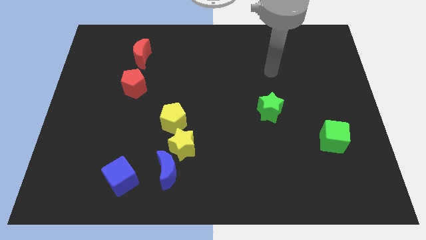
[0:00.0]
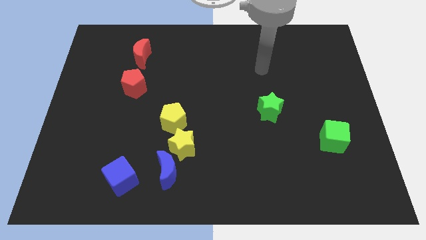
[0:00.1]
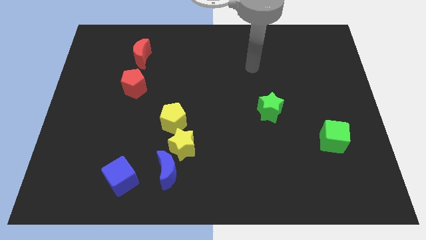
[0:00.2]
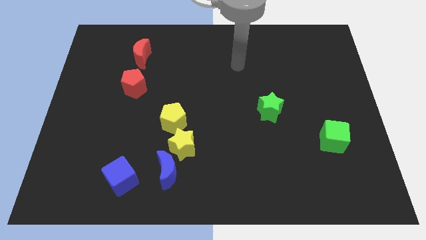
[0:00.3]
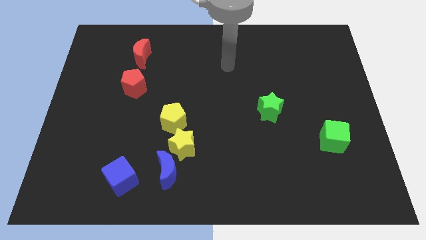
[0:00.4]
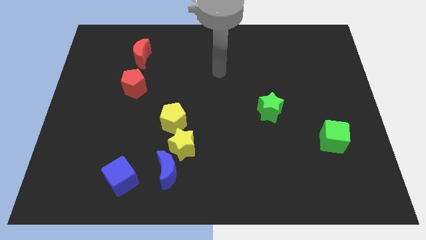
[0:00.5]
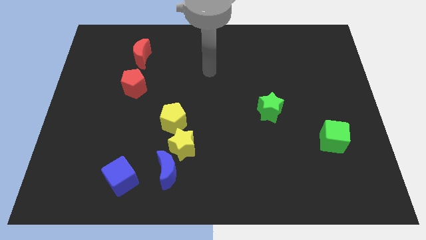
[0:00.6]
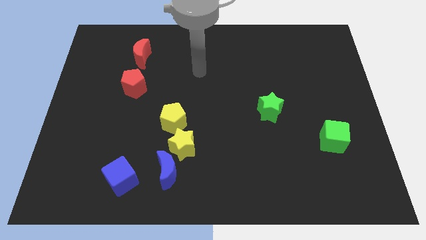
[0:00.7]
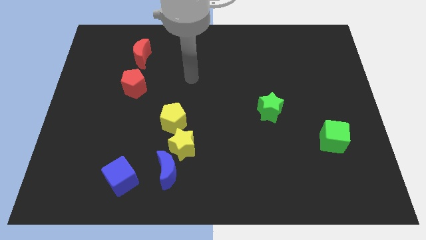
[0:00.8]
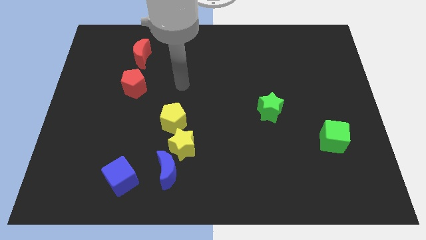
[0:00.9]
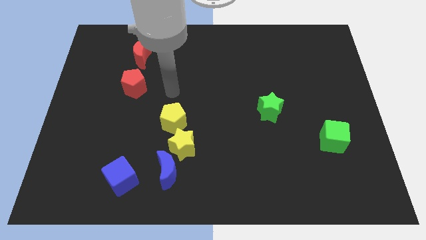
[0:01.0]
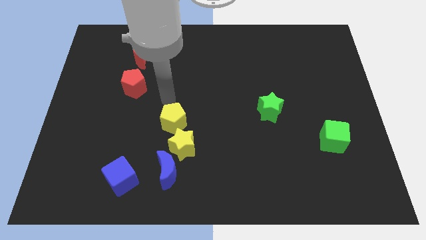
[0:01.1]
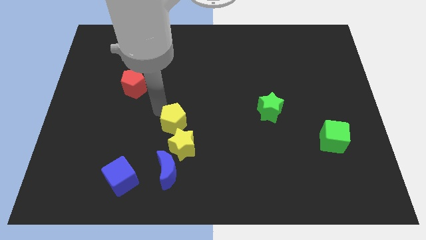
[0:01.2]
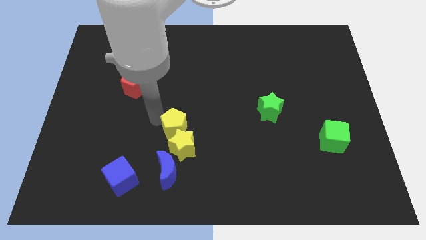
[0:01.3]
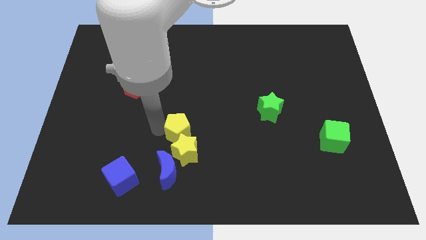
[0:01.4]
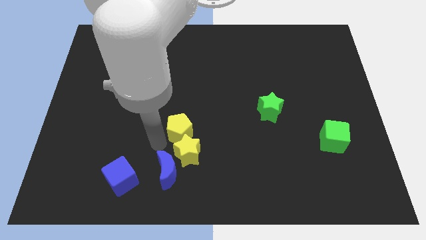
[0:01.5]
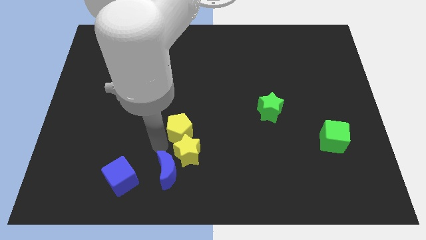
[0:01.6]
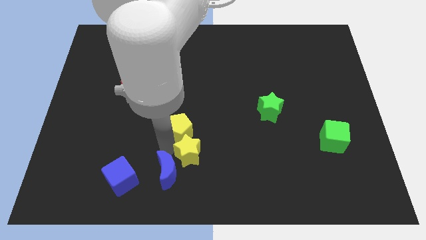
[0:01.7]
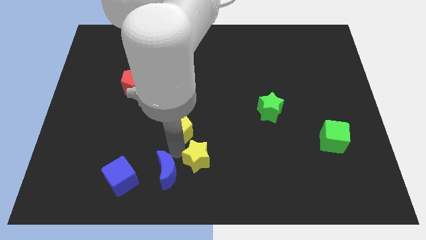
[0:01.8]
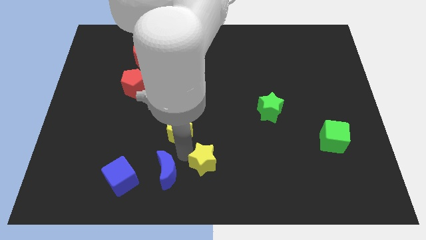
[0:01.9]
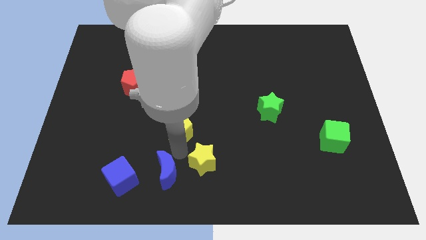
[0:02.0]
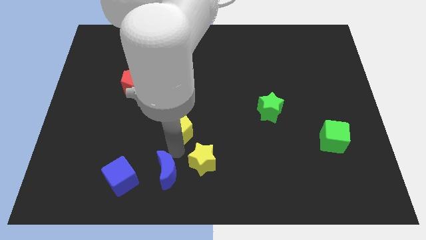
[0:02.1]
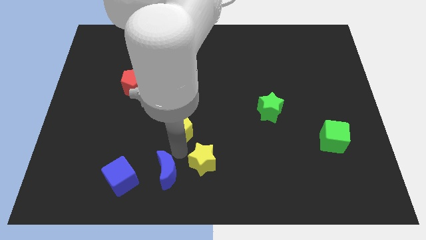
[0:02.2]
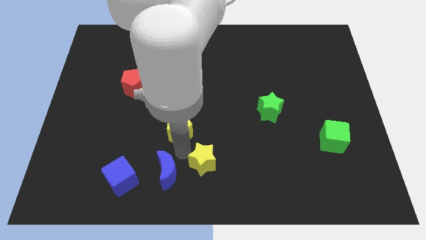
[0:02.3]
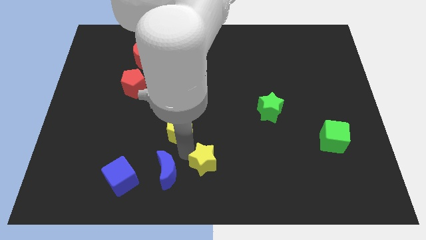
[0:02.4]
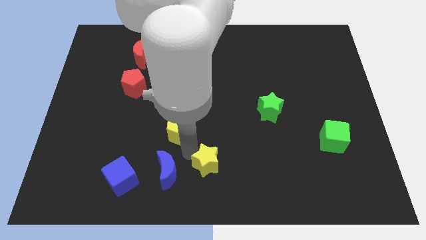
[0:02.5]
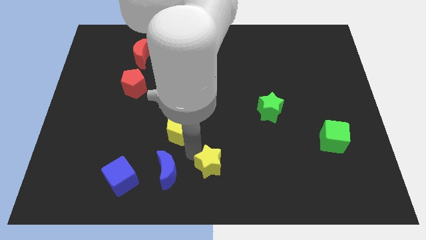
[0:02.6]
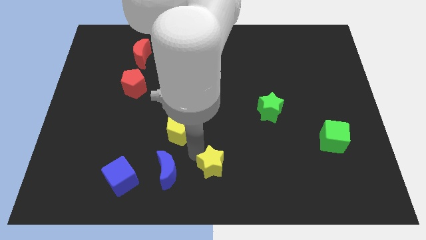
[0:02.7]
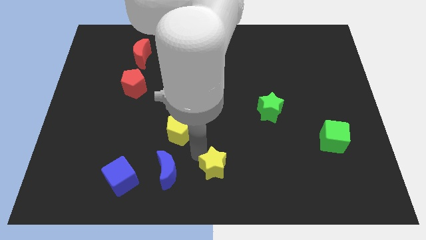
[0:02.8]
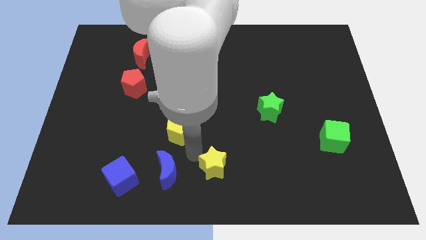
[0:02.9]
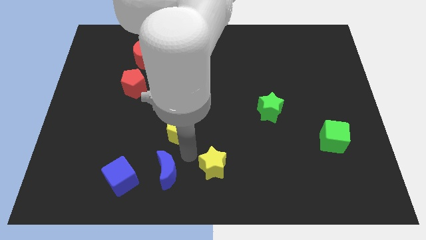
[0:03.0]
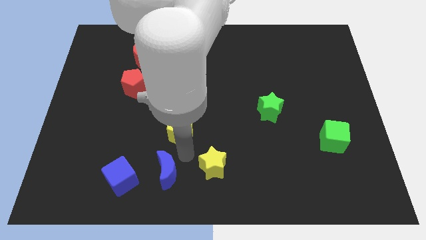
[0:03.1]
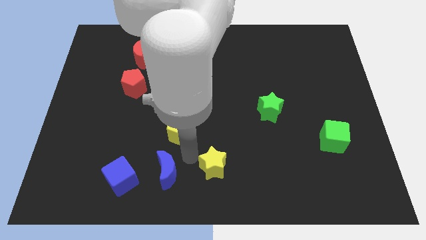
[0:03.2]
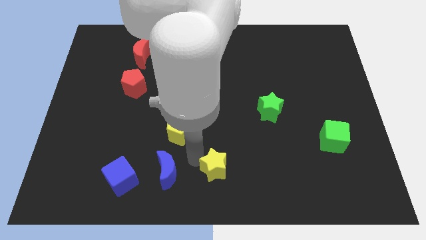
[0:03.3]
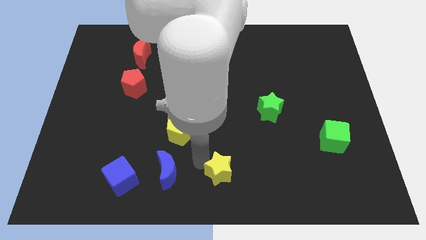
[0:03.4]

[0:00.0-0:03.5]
separate the yellow star from the blue moon and yellow pentagon

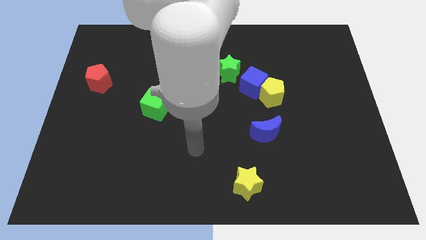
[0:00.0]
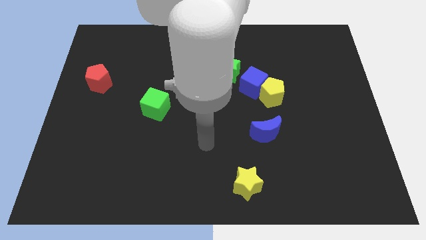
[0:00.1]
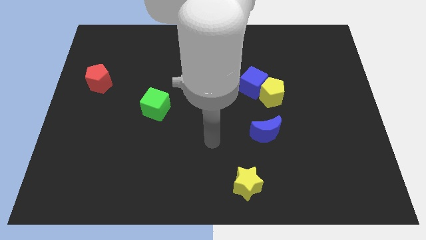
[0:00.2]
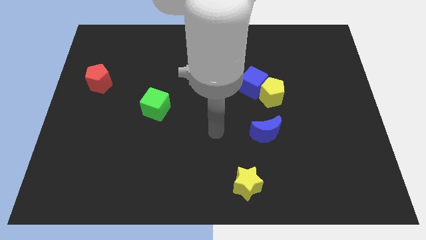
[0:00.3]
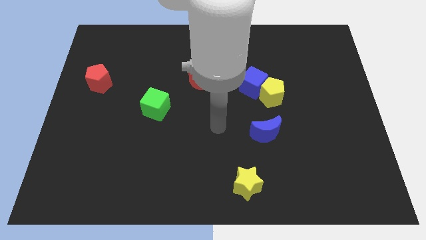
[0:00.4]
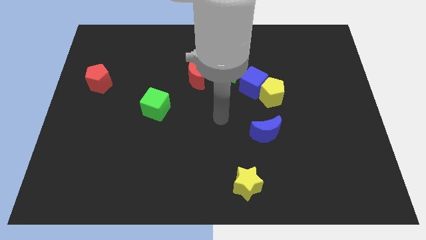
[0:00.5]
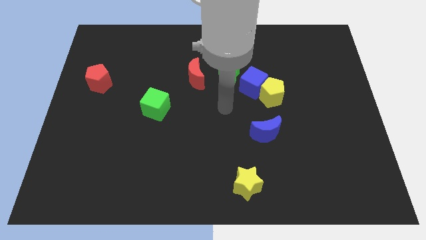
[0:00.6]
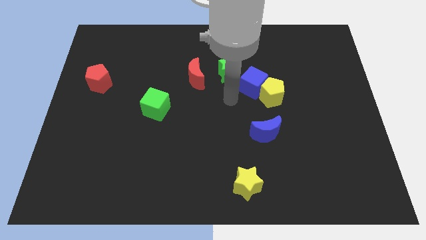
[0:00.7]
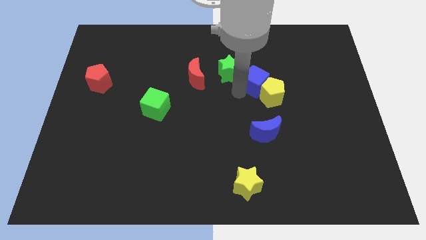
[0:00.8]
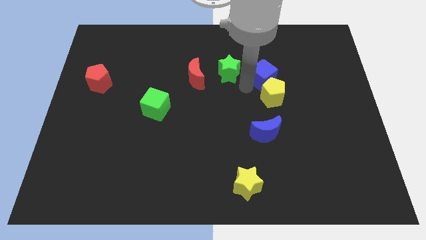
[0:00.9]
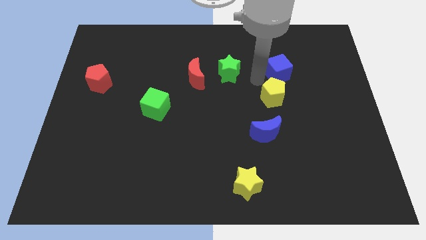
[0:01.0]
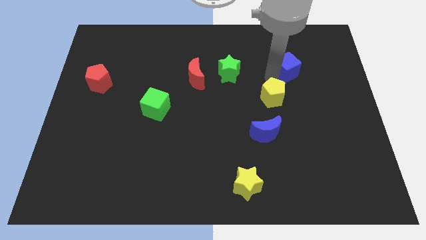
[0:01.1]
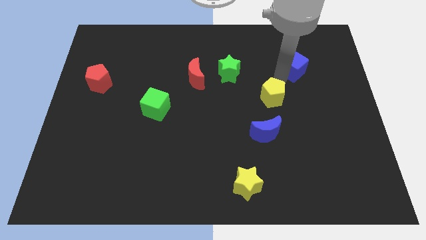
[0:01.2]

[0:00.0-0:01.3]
pull the yellow pentagon apart from the blue cube

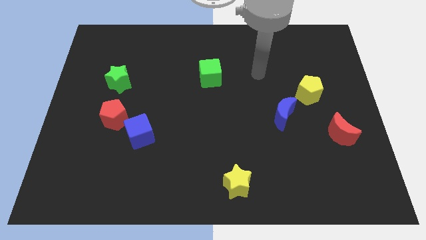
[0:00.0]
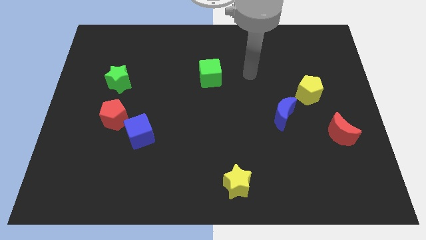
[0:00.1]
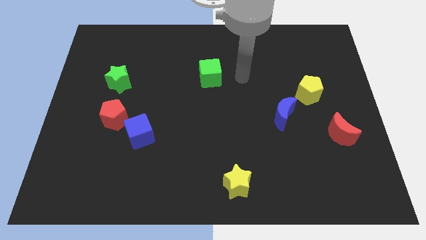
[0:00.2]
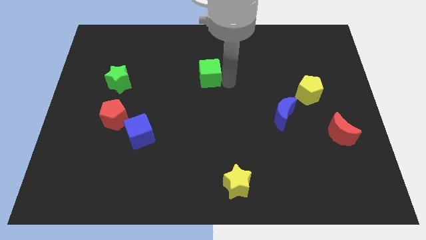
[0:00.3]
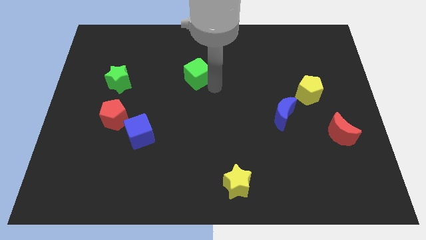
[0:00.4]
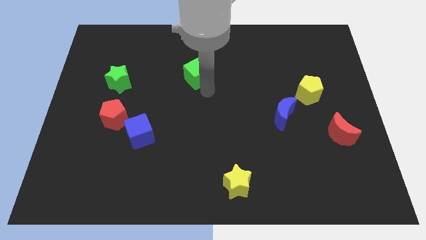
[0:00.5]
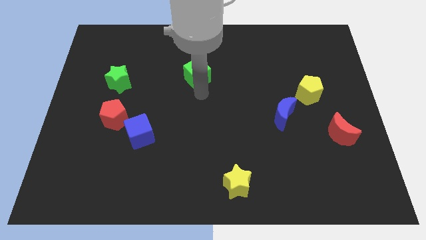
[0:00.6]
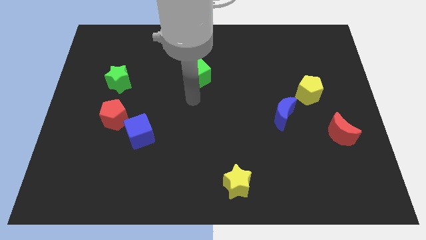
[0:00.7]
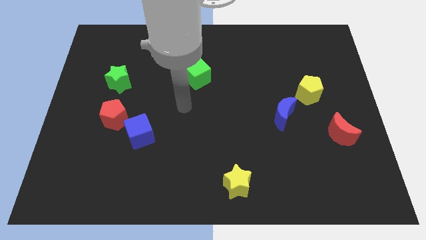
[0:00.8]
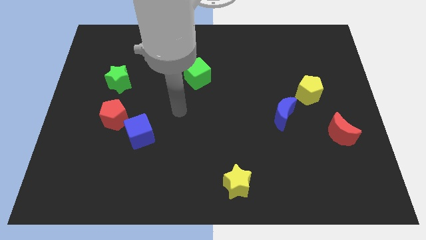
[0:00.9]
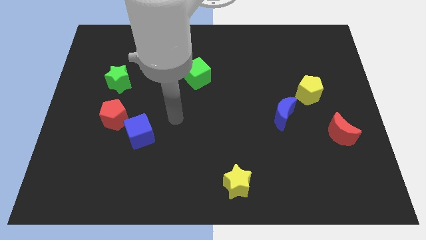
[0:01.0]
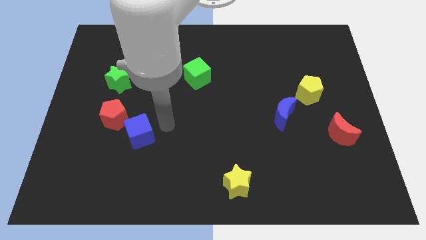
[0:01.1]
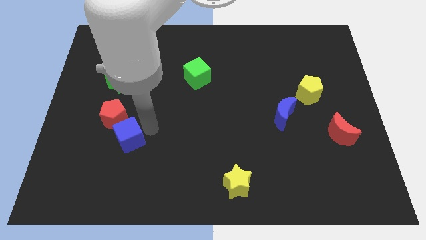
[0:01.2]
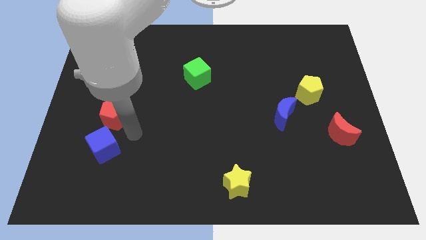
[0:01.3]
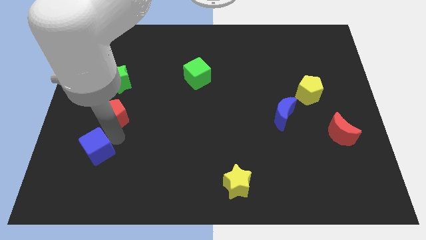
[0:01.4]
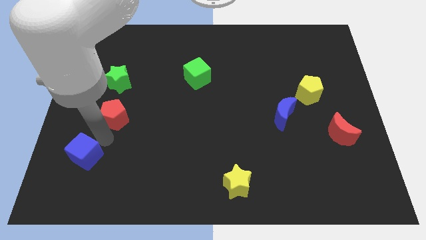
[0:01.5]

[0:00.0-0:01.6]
separate the red pentagon from the blue cube

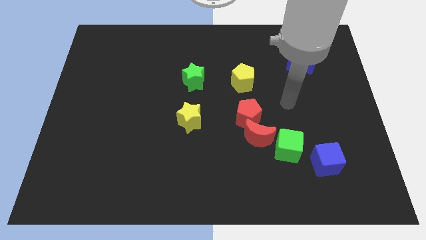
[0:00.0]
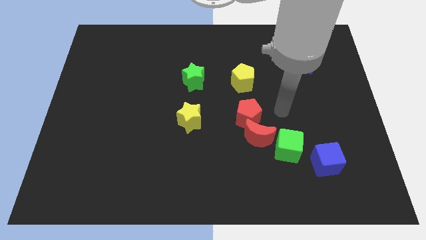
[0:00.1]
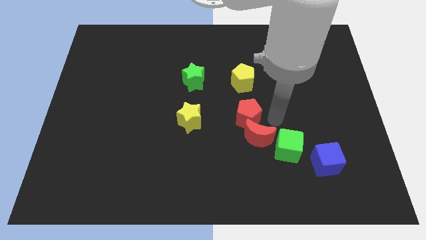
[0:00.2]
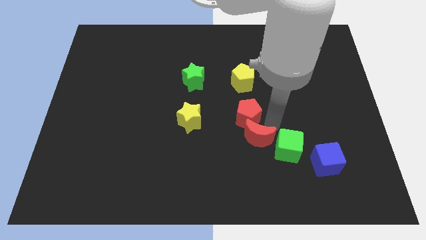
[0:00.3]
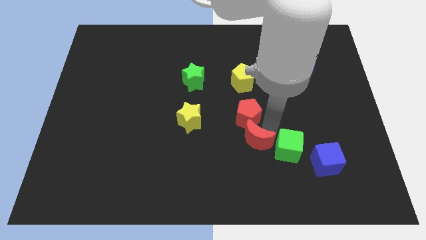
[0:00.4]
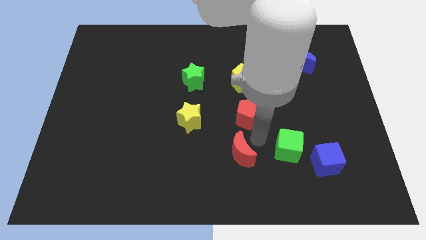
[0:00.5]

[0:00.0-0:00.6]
pull the red pentagon apart from the red moon

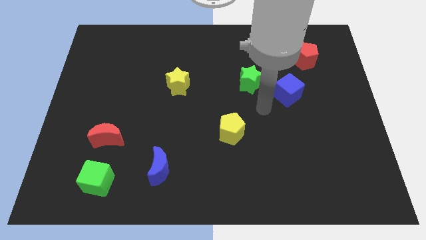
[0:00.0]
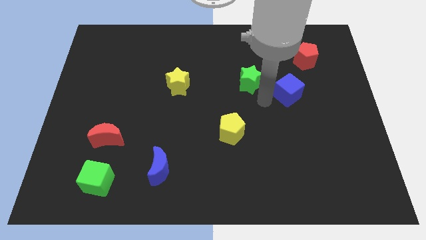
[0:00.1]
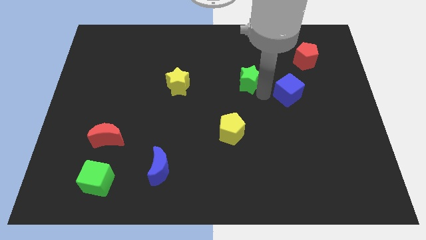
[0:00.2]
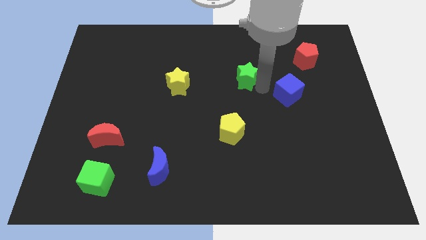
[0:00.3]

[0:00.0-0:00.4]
move the blue cube away from the green star

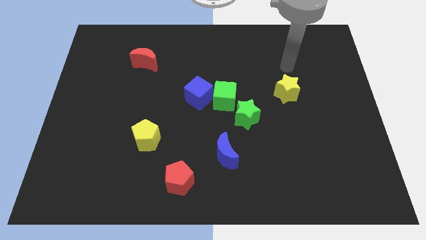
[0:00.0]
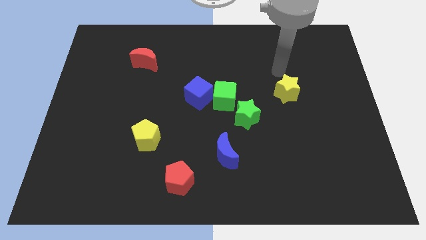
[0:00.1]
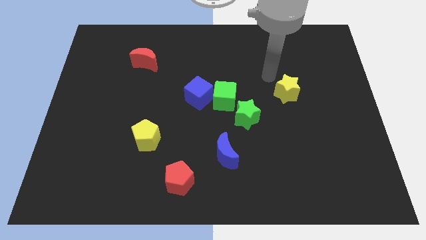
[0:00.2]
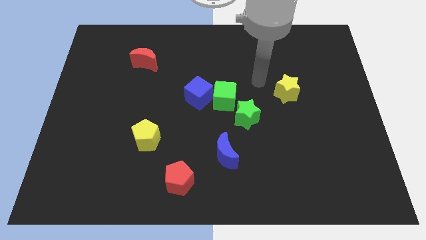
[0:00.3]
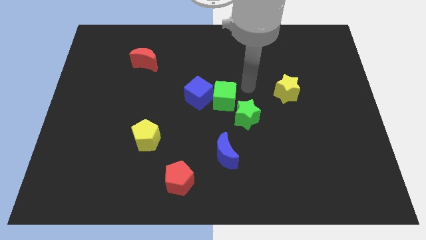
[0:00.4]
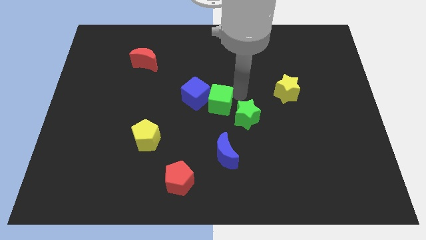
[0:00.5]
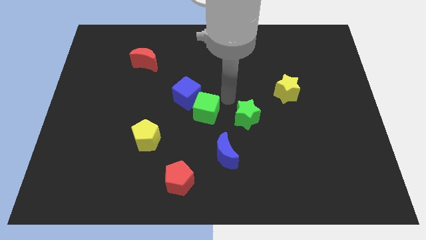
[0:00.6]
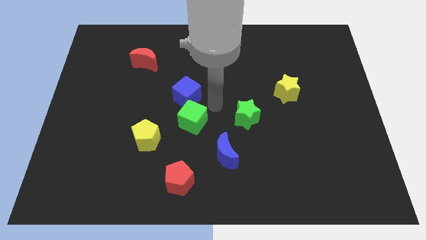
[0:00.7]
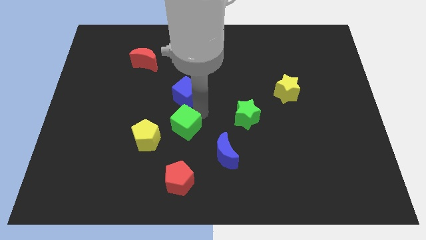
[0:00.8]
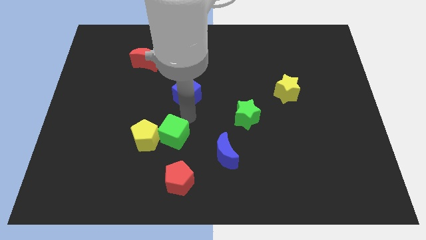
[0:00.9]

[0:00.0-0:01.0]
move the blue cube away from the green cube

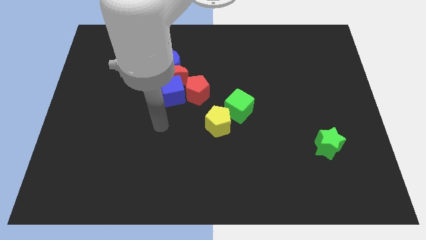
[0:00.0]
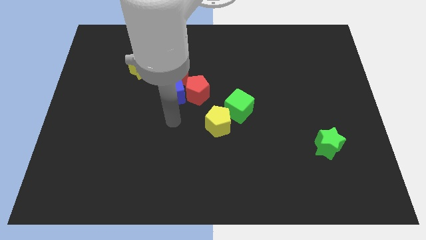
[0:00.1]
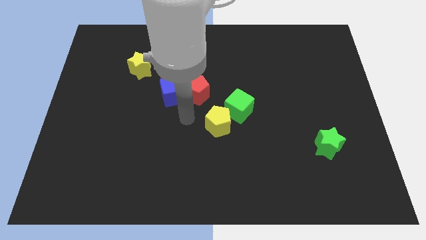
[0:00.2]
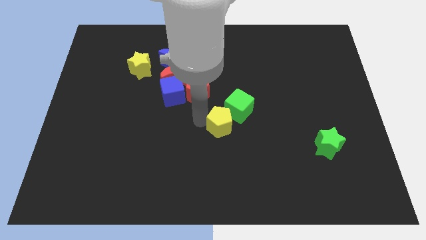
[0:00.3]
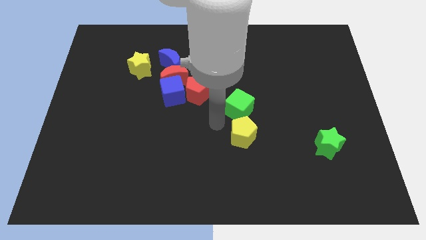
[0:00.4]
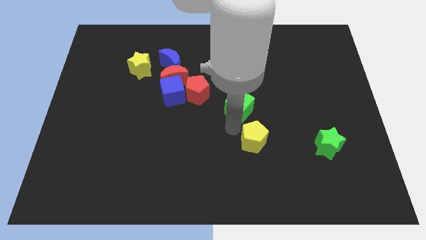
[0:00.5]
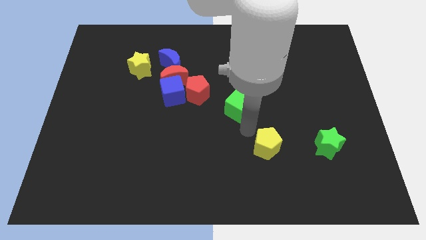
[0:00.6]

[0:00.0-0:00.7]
separate the green cube from the yellow pentagon

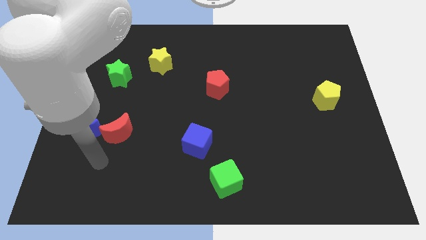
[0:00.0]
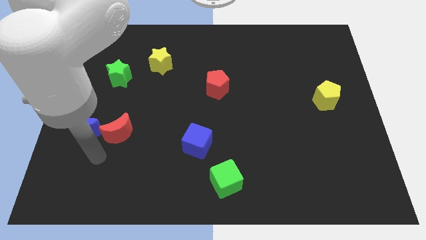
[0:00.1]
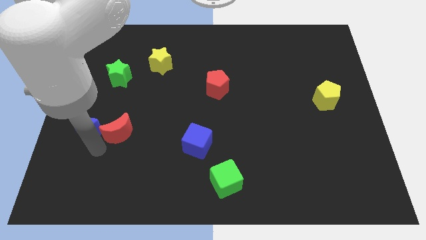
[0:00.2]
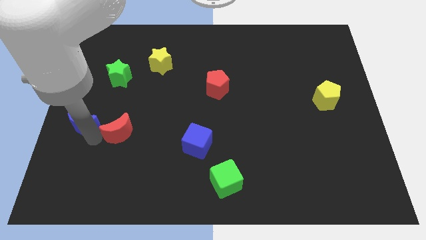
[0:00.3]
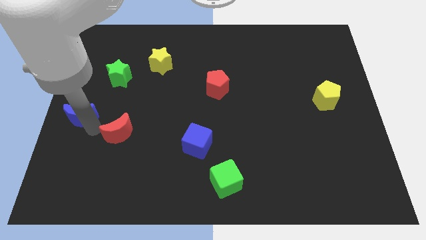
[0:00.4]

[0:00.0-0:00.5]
separate the red moon from the blue moon
